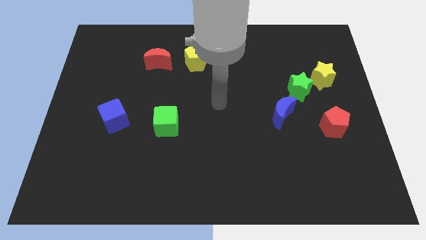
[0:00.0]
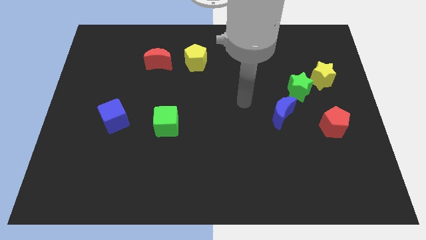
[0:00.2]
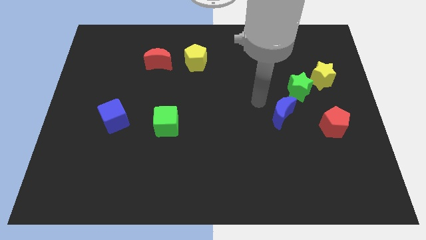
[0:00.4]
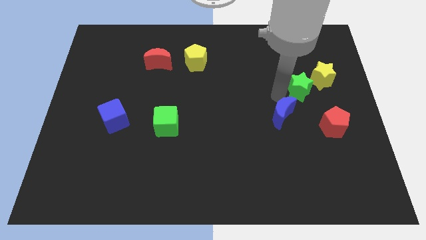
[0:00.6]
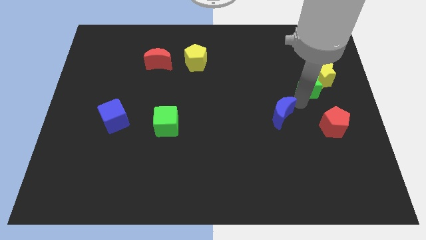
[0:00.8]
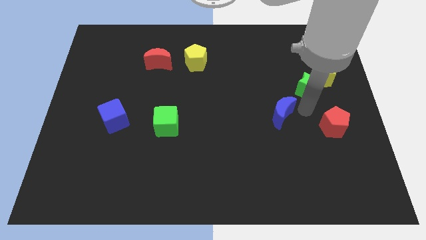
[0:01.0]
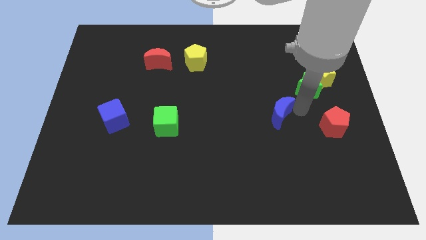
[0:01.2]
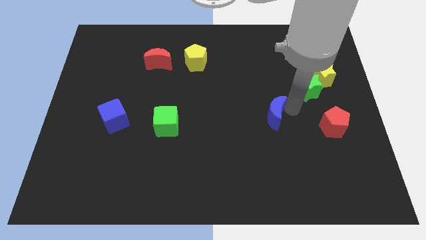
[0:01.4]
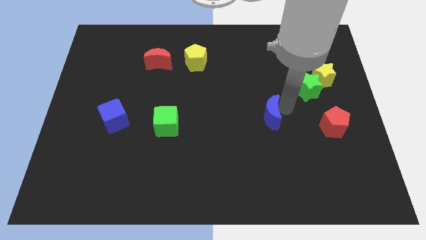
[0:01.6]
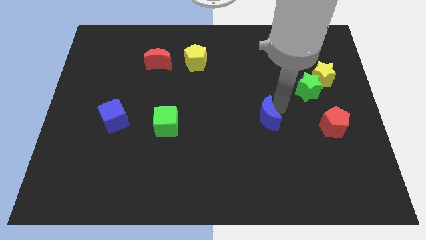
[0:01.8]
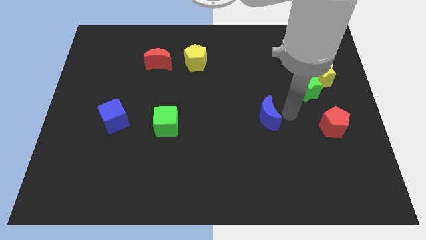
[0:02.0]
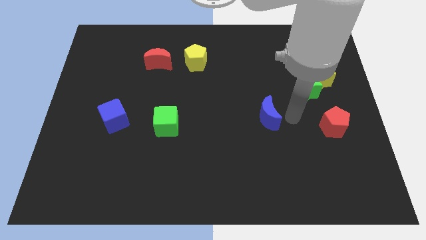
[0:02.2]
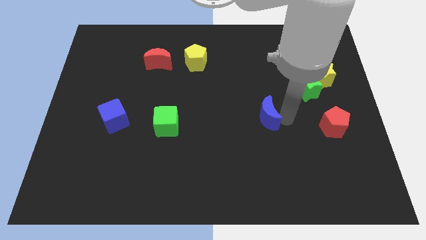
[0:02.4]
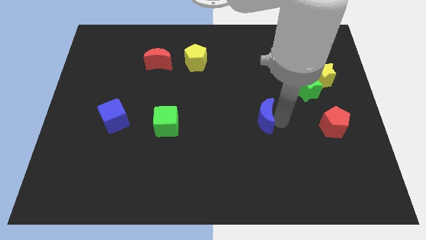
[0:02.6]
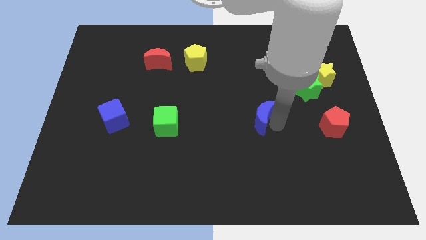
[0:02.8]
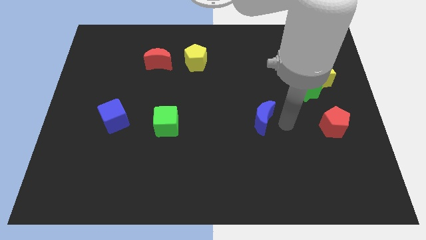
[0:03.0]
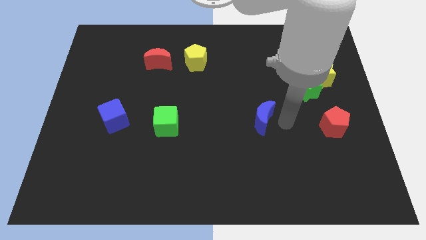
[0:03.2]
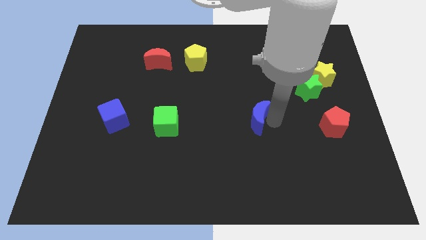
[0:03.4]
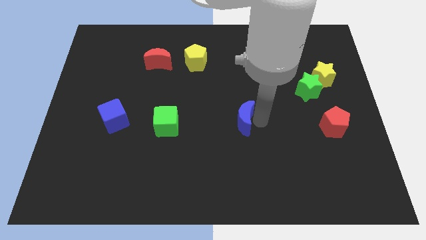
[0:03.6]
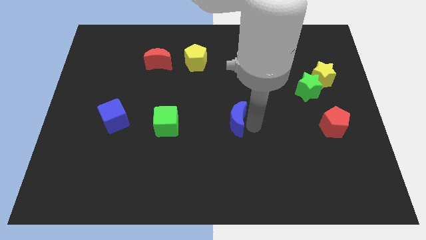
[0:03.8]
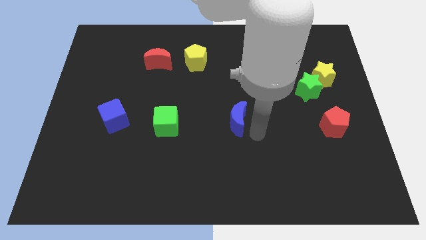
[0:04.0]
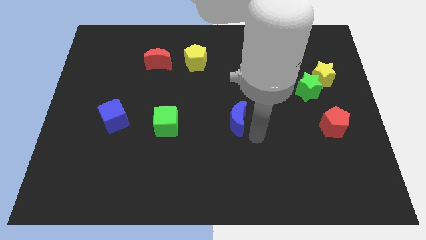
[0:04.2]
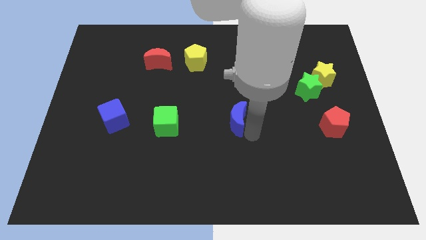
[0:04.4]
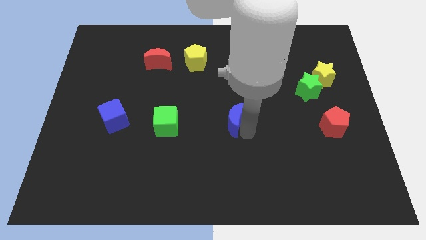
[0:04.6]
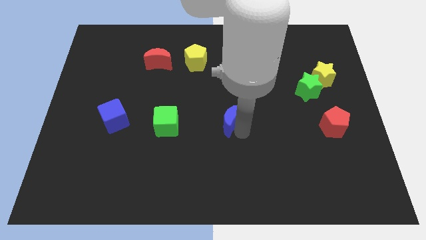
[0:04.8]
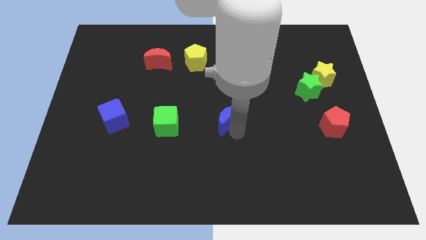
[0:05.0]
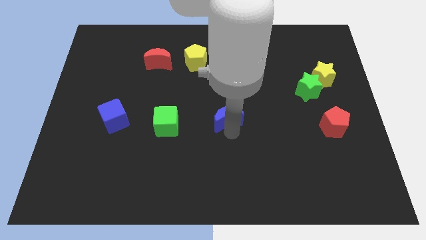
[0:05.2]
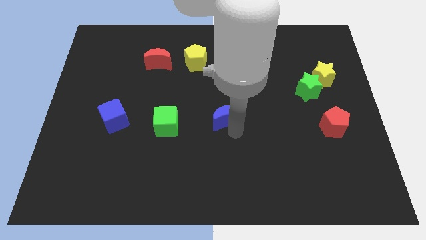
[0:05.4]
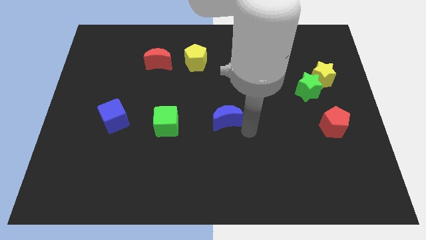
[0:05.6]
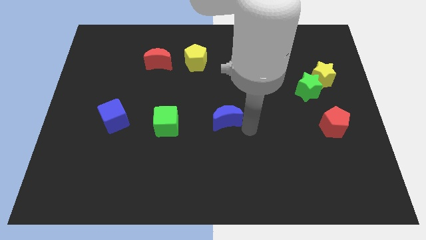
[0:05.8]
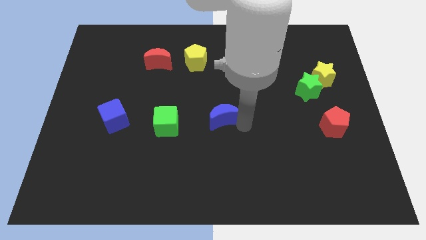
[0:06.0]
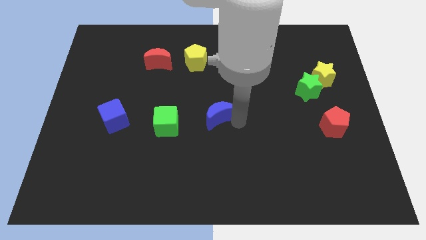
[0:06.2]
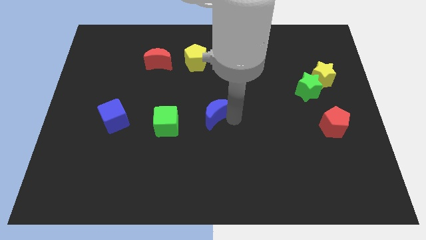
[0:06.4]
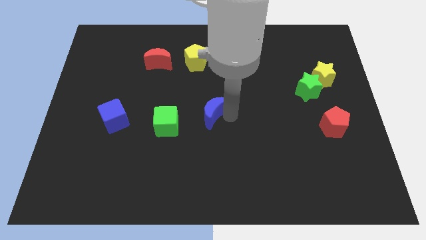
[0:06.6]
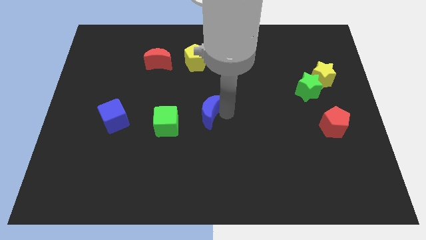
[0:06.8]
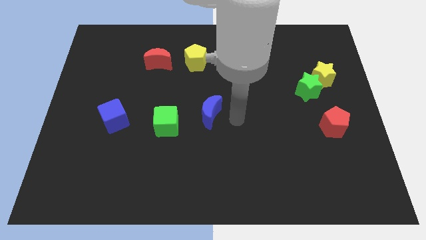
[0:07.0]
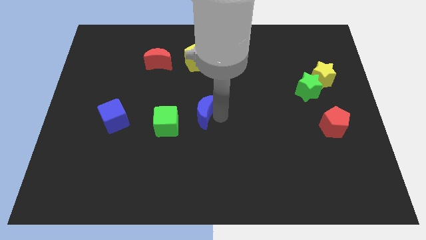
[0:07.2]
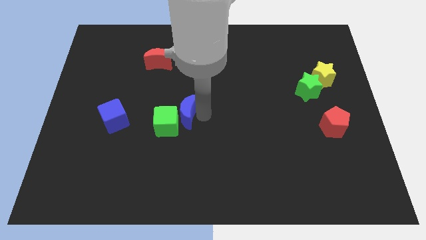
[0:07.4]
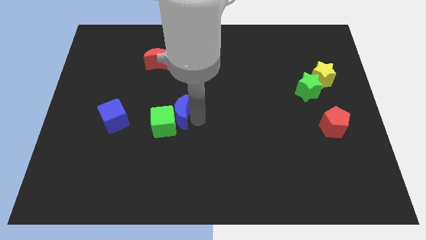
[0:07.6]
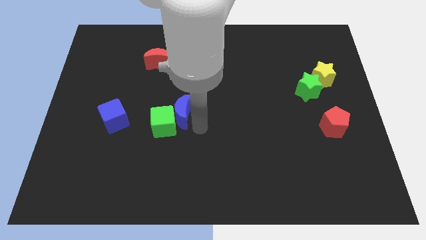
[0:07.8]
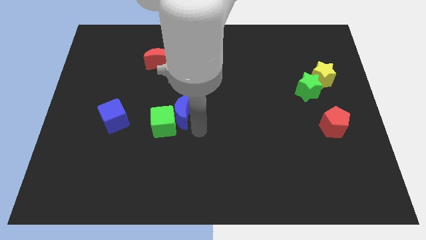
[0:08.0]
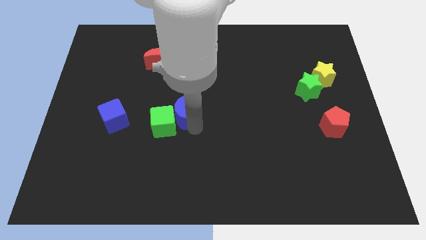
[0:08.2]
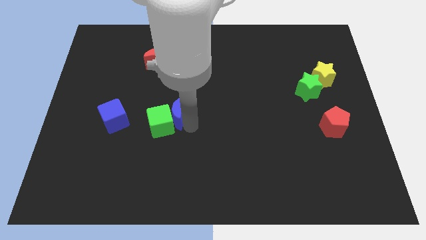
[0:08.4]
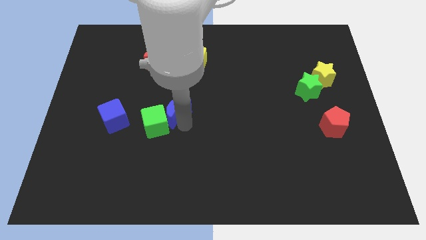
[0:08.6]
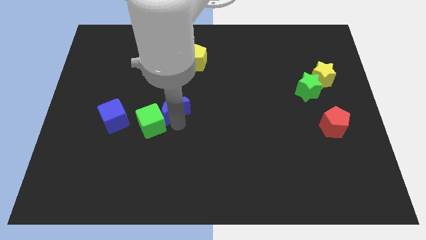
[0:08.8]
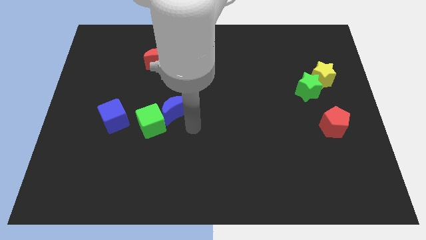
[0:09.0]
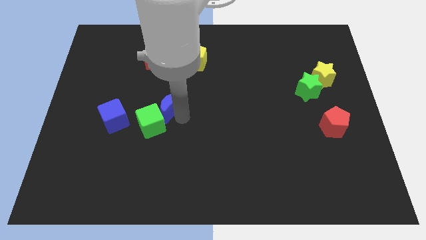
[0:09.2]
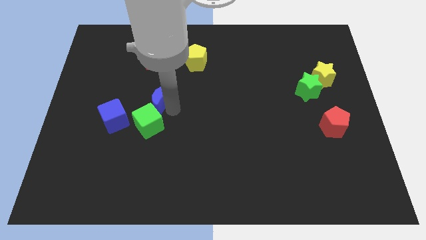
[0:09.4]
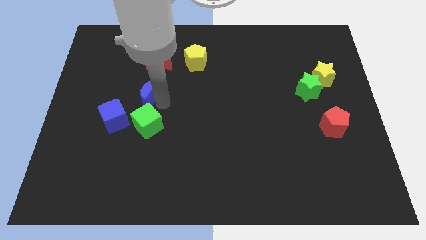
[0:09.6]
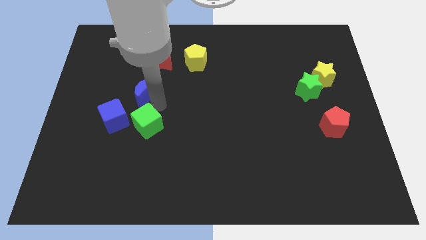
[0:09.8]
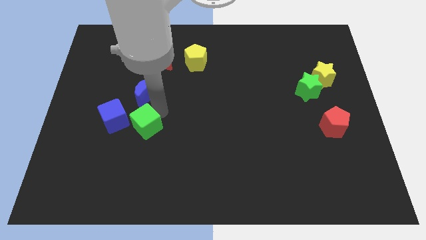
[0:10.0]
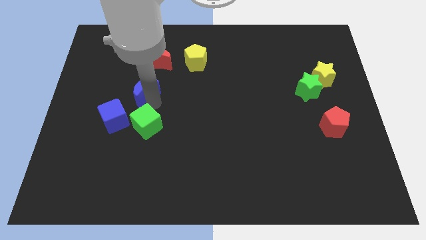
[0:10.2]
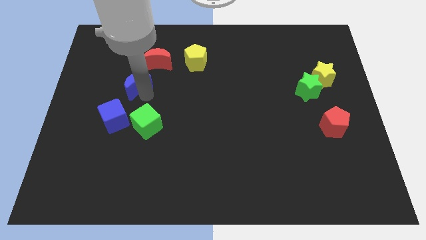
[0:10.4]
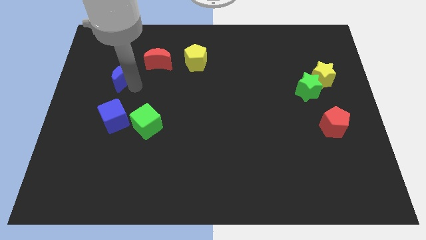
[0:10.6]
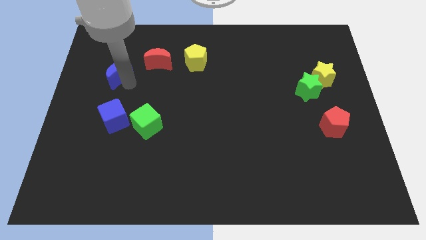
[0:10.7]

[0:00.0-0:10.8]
push the blue moon to the left side of the red moon

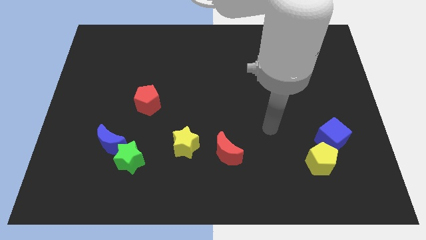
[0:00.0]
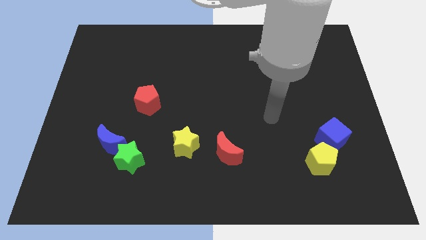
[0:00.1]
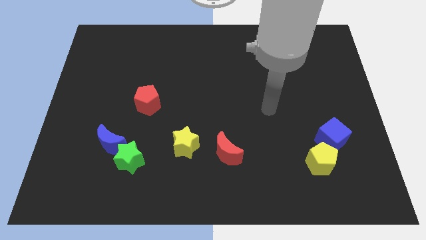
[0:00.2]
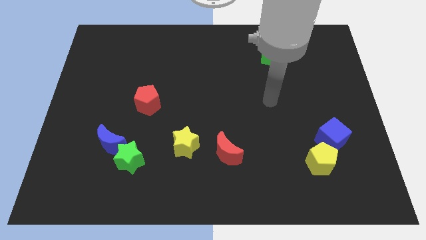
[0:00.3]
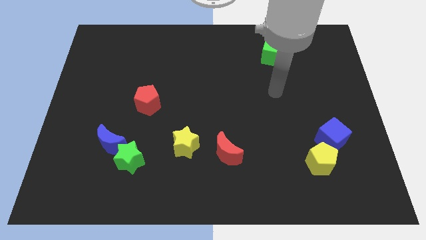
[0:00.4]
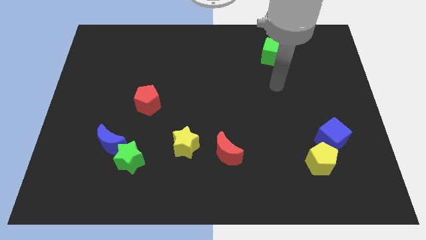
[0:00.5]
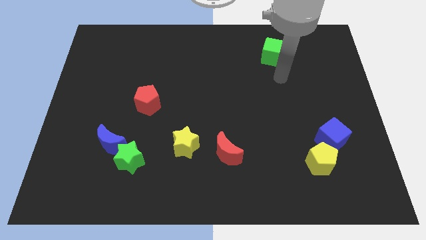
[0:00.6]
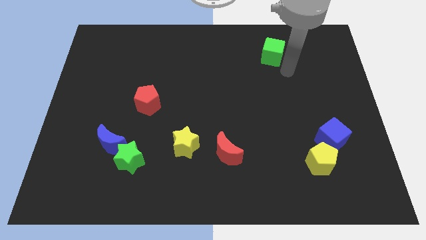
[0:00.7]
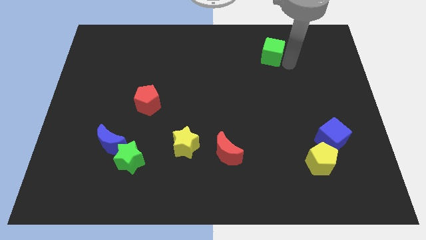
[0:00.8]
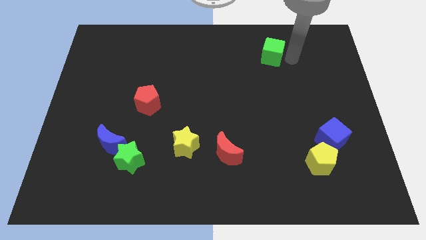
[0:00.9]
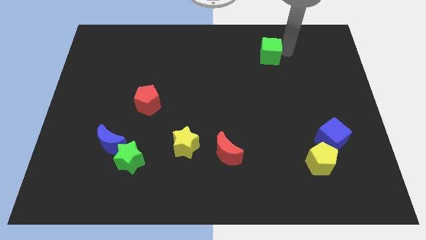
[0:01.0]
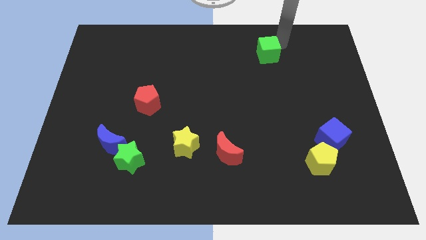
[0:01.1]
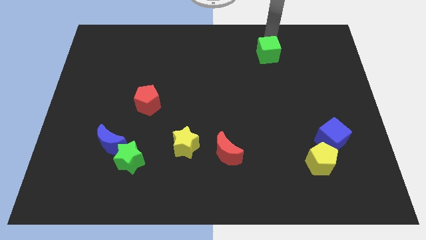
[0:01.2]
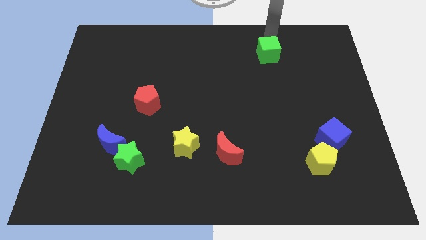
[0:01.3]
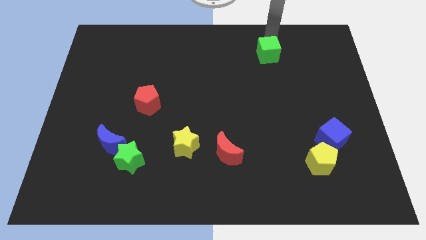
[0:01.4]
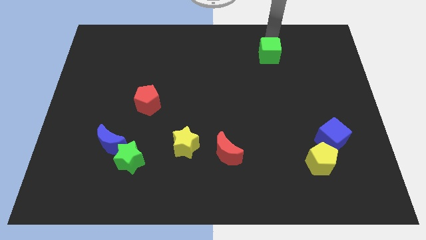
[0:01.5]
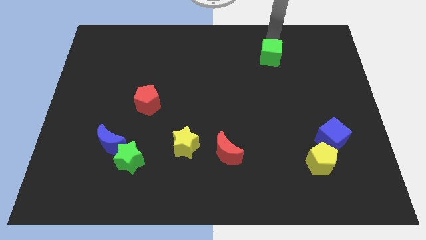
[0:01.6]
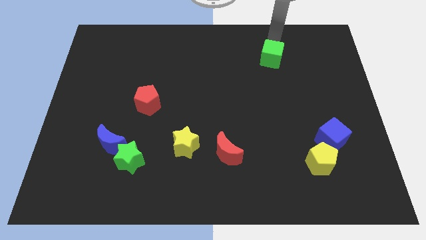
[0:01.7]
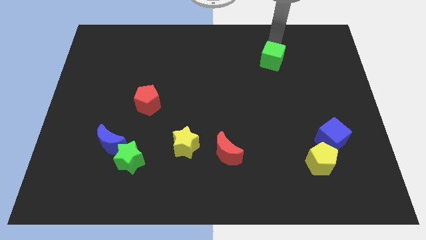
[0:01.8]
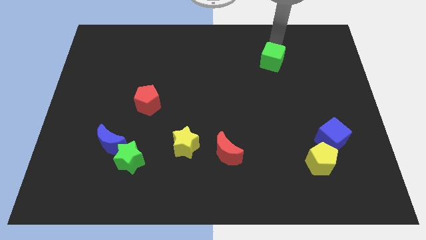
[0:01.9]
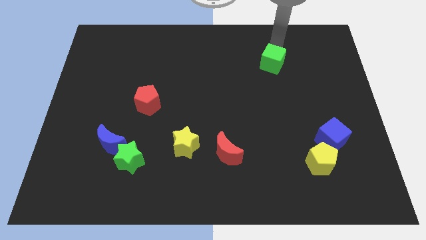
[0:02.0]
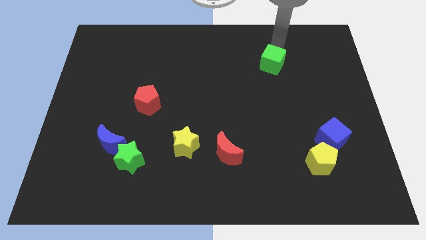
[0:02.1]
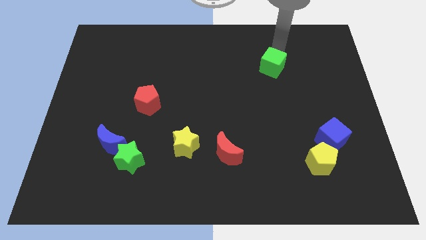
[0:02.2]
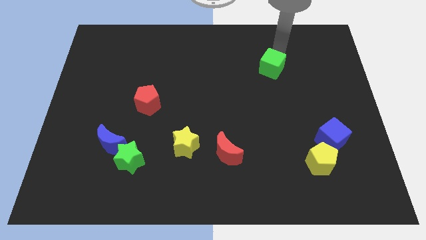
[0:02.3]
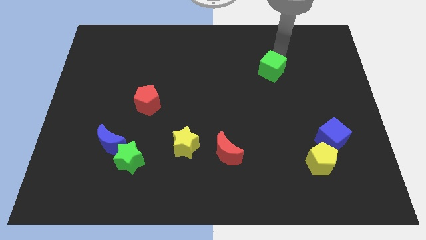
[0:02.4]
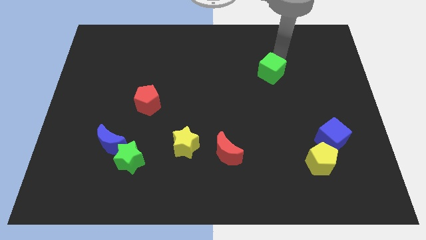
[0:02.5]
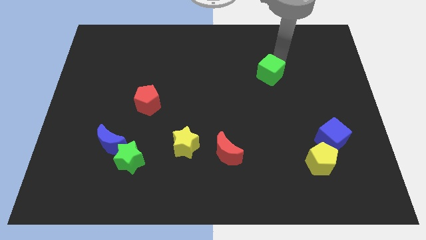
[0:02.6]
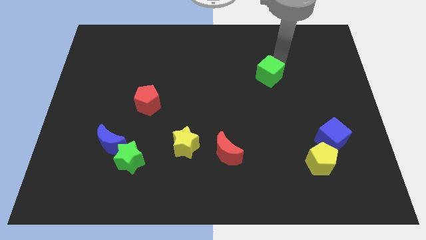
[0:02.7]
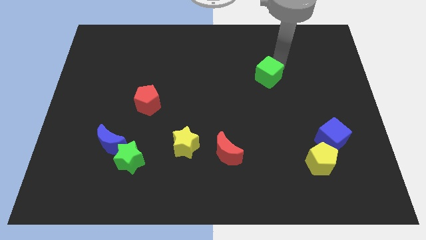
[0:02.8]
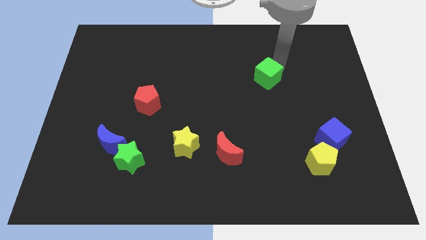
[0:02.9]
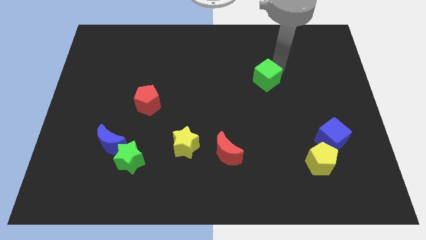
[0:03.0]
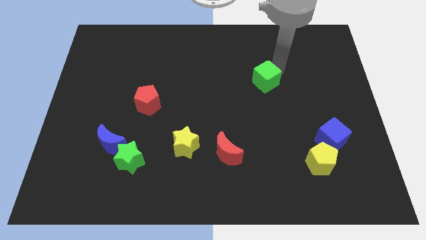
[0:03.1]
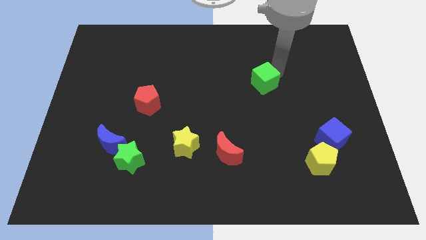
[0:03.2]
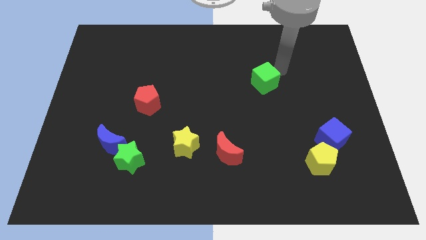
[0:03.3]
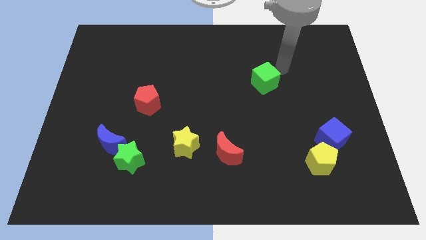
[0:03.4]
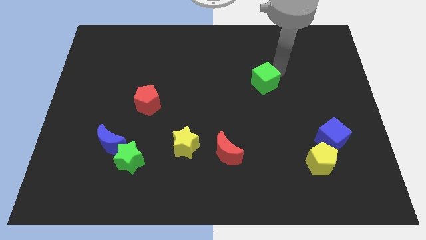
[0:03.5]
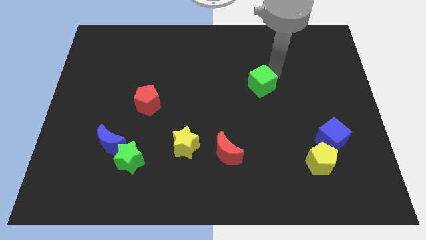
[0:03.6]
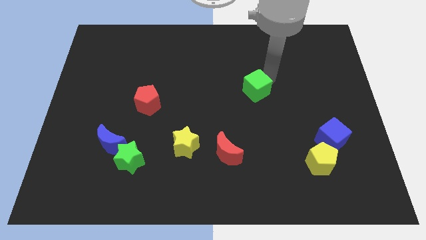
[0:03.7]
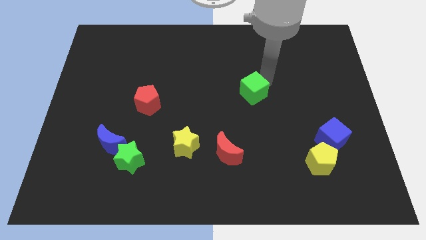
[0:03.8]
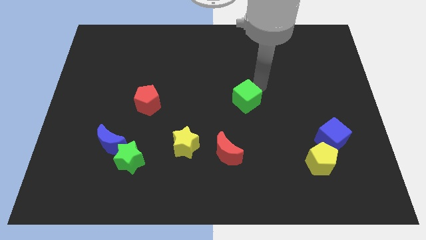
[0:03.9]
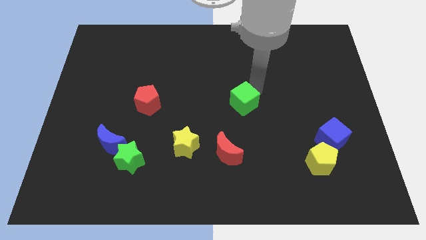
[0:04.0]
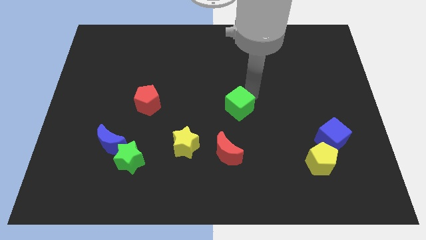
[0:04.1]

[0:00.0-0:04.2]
push the green cube to the top side of the red moon
